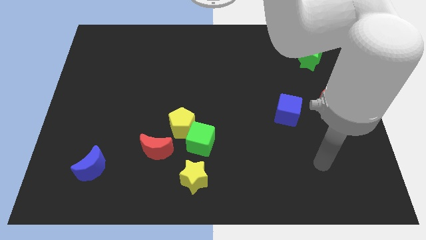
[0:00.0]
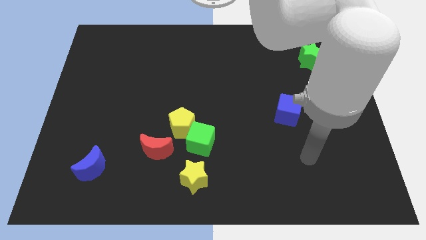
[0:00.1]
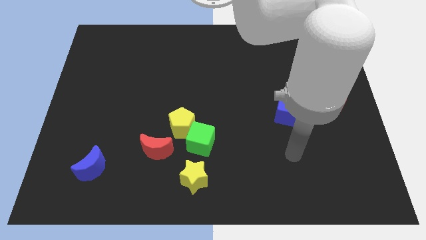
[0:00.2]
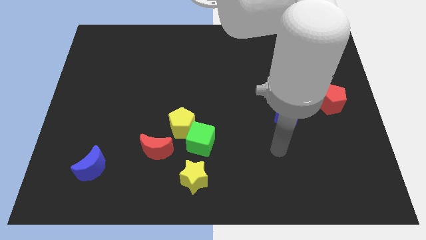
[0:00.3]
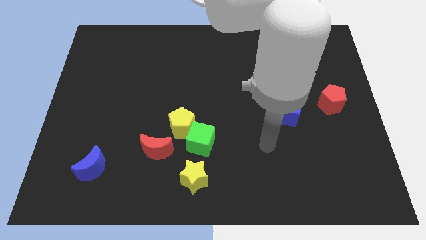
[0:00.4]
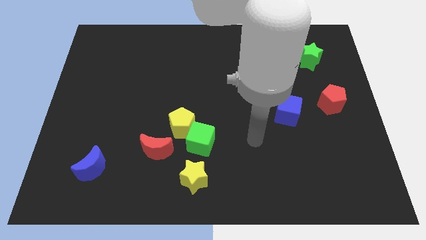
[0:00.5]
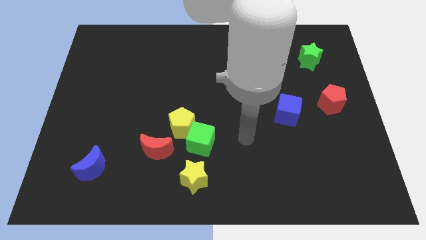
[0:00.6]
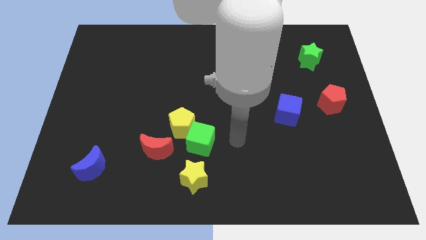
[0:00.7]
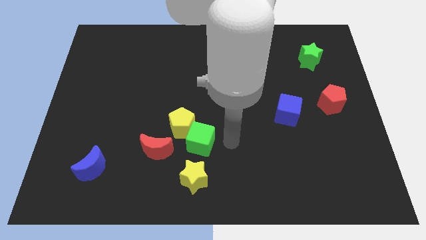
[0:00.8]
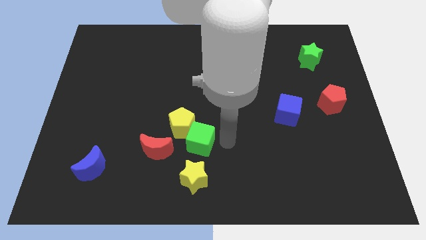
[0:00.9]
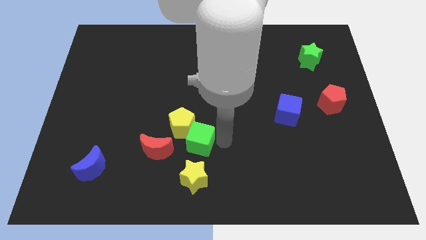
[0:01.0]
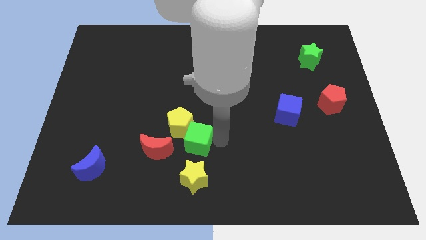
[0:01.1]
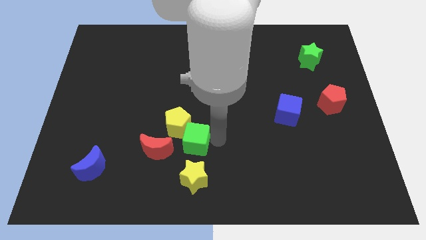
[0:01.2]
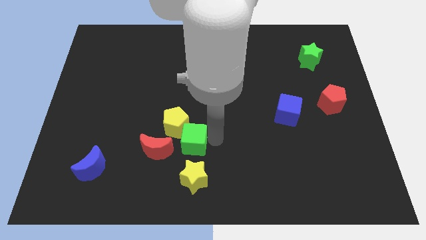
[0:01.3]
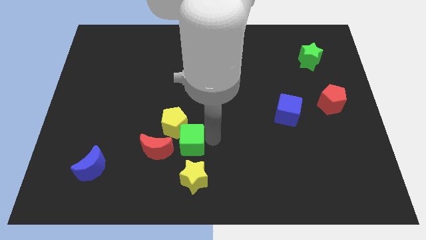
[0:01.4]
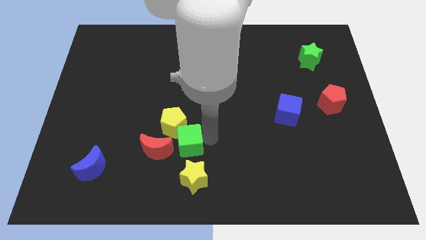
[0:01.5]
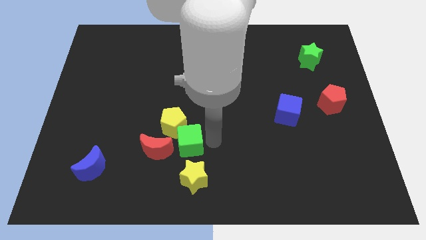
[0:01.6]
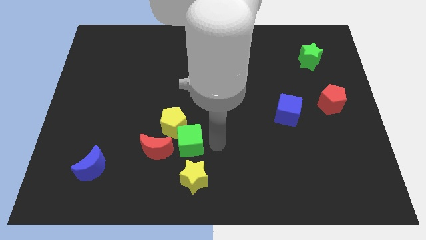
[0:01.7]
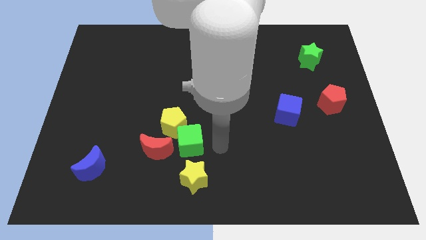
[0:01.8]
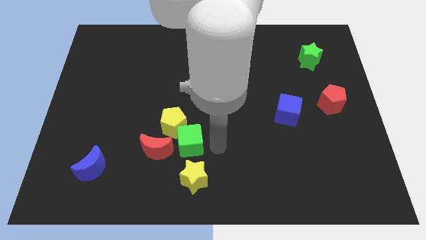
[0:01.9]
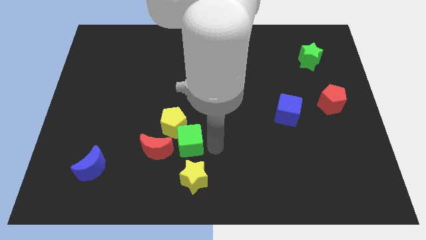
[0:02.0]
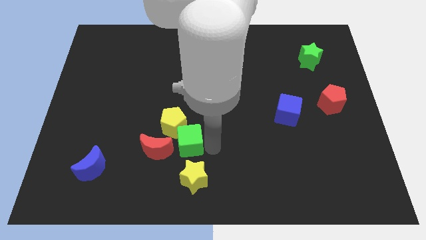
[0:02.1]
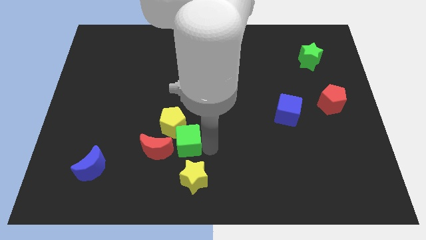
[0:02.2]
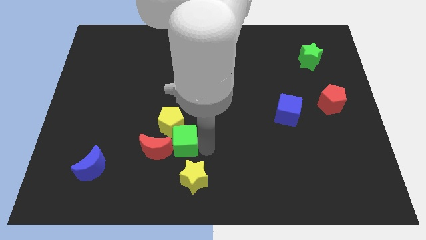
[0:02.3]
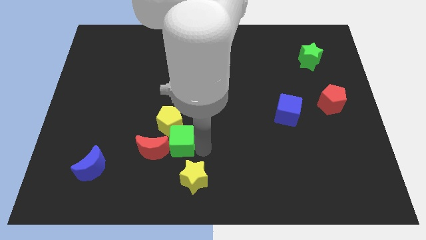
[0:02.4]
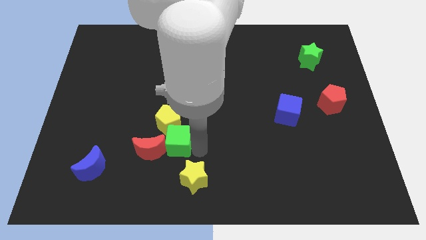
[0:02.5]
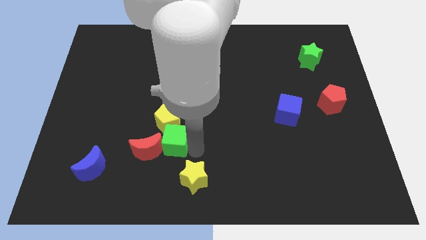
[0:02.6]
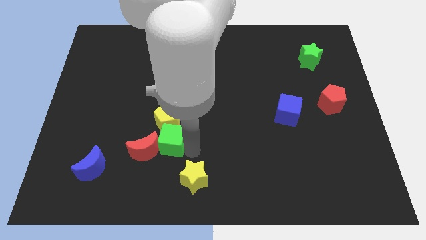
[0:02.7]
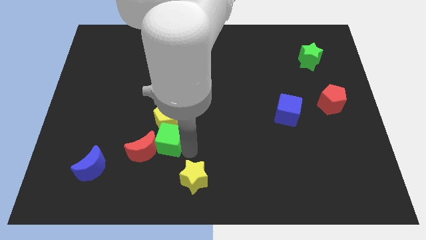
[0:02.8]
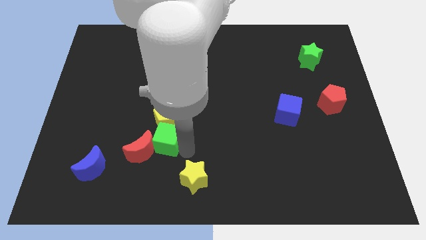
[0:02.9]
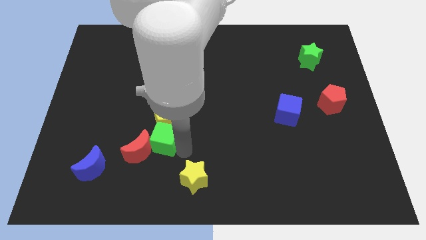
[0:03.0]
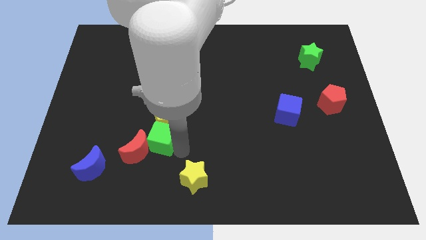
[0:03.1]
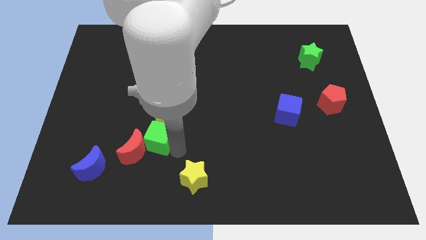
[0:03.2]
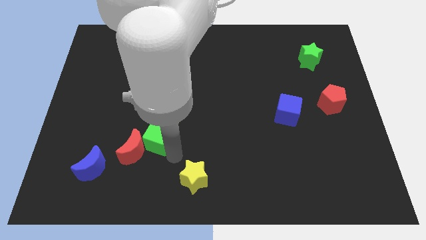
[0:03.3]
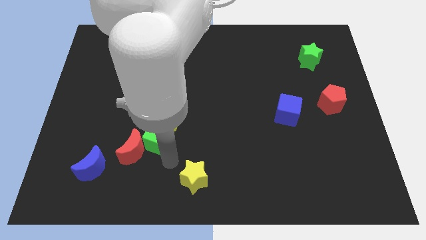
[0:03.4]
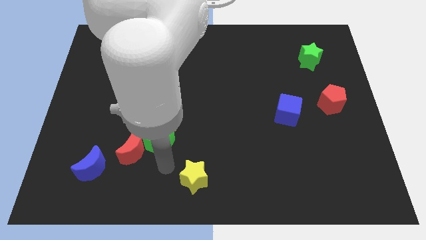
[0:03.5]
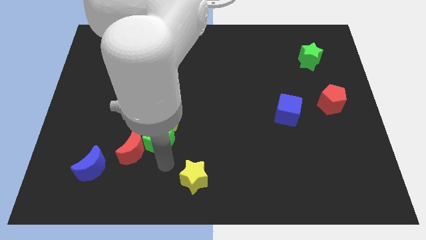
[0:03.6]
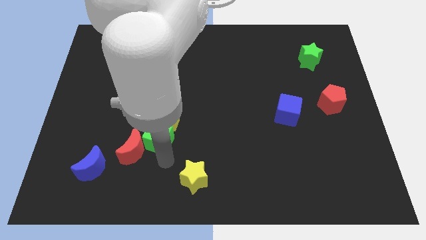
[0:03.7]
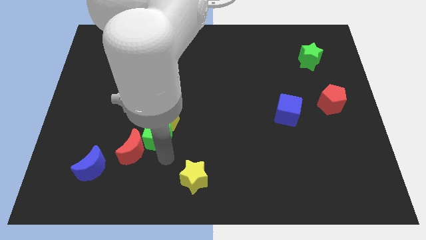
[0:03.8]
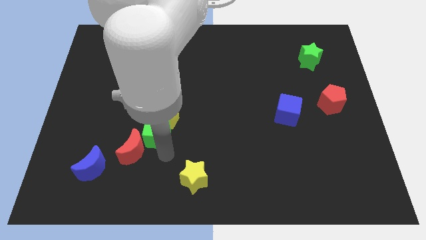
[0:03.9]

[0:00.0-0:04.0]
slightly push the green cube upwards and left diagonally

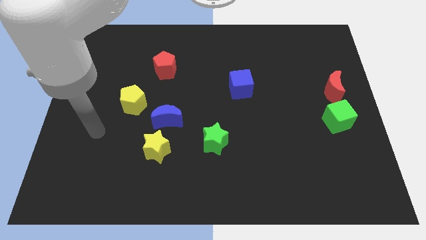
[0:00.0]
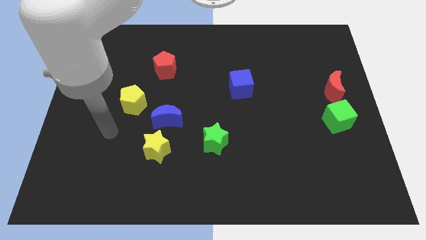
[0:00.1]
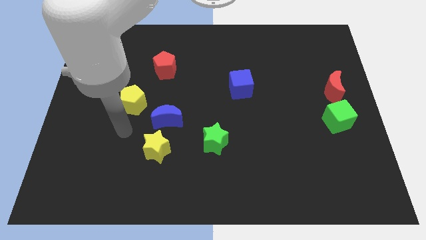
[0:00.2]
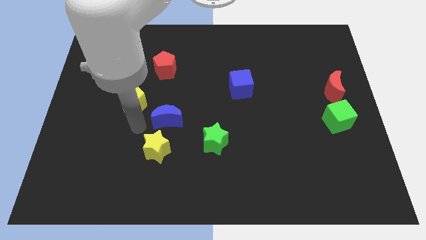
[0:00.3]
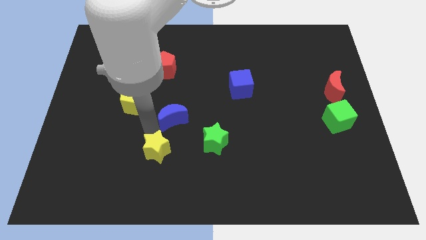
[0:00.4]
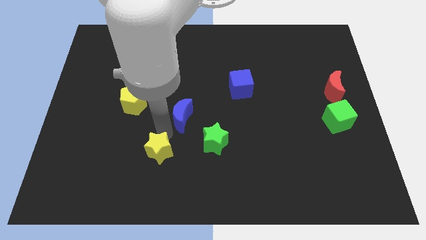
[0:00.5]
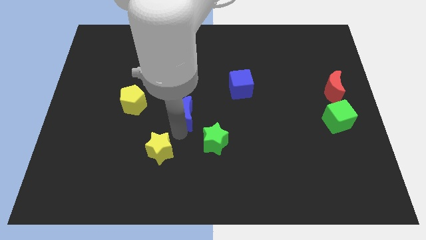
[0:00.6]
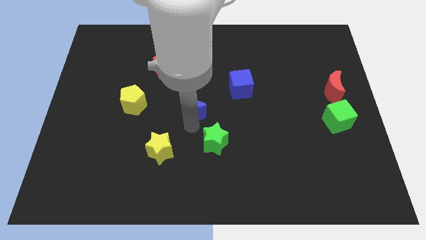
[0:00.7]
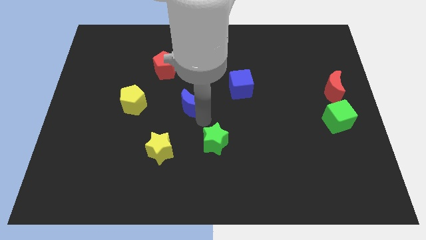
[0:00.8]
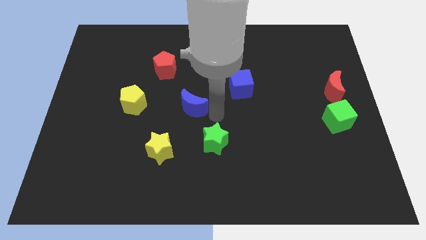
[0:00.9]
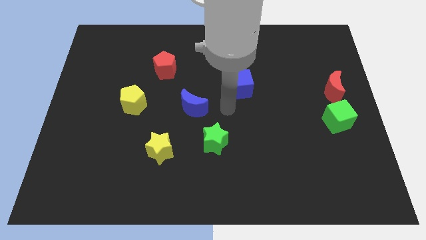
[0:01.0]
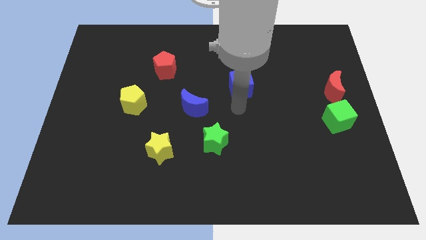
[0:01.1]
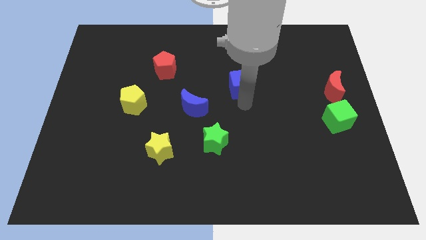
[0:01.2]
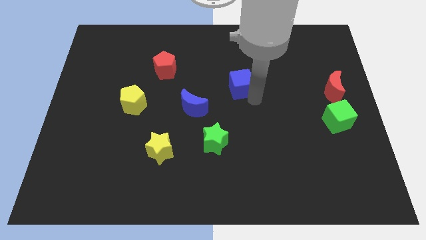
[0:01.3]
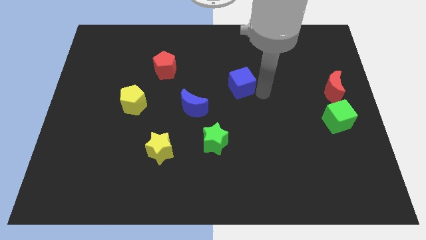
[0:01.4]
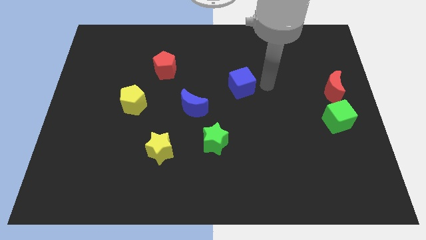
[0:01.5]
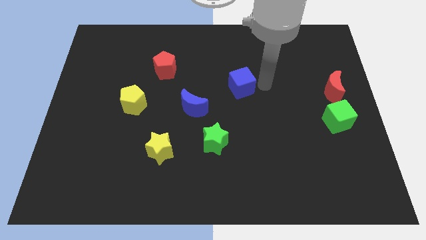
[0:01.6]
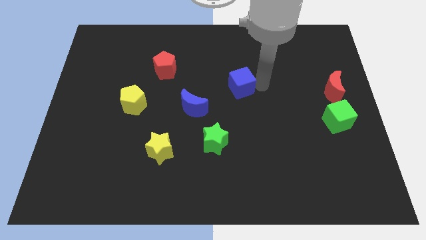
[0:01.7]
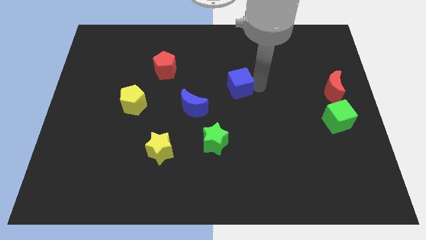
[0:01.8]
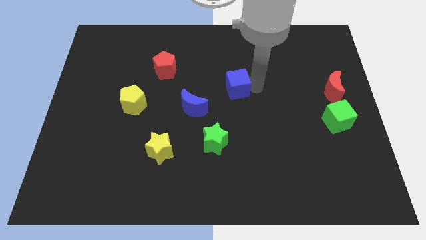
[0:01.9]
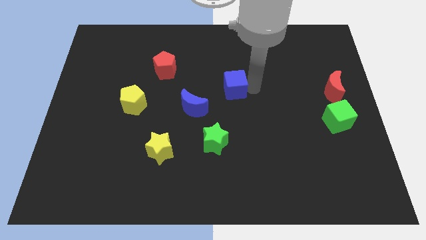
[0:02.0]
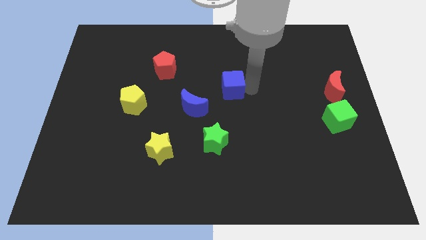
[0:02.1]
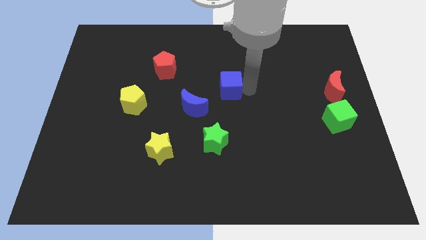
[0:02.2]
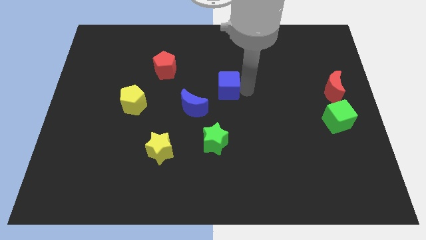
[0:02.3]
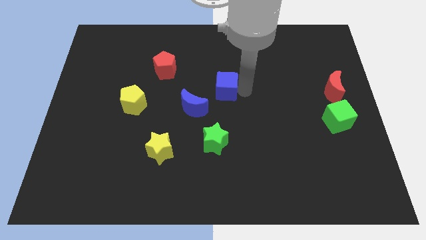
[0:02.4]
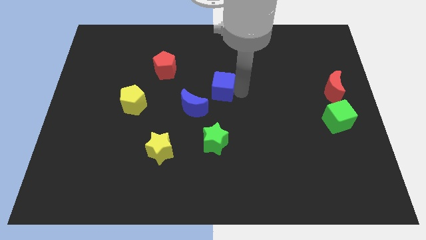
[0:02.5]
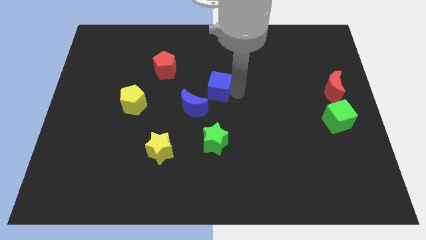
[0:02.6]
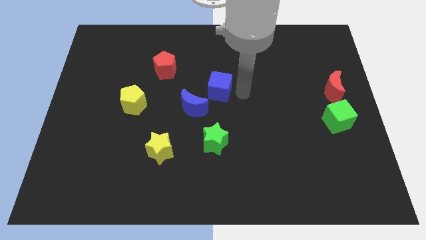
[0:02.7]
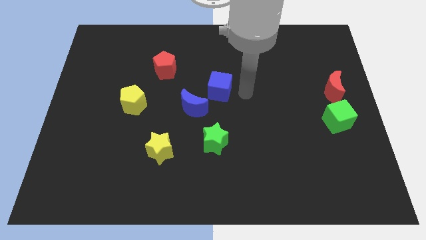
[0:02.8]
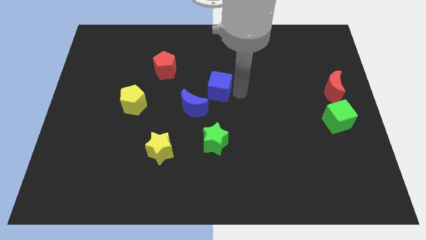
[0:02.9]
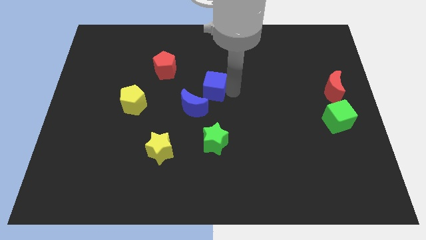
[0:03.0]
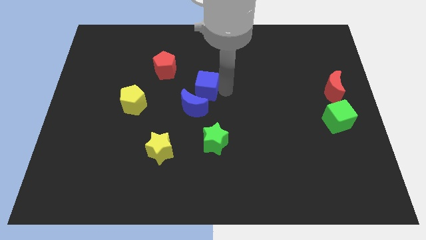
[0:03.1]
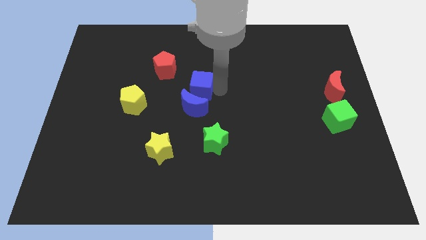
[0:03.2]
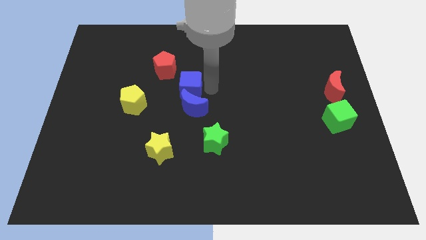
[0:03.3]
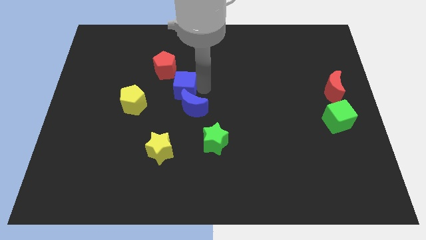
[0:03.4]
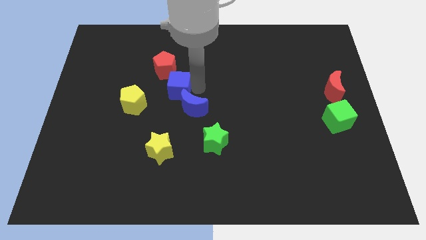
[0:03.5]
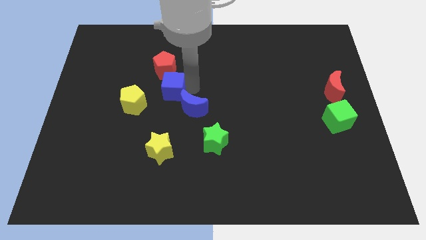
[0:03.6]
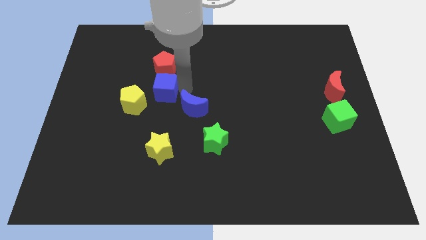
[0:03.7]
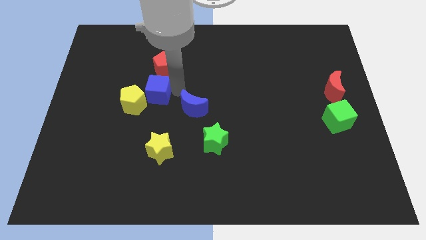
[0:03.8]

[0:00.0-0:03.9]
move the blue cube to the left

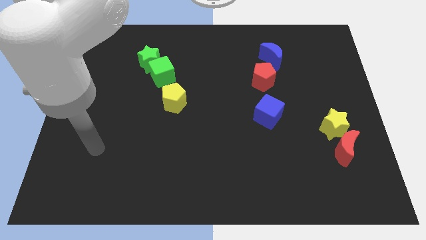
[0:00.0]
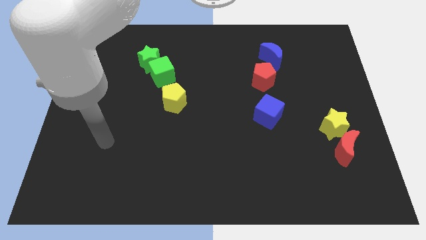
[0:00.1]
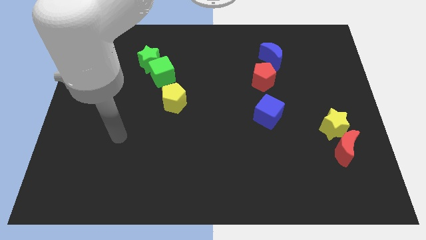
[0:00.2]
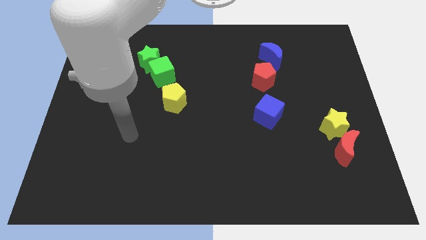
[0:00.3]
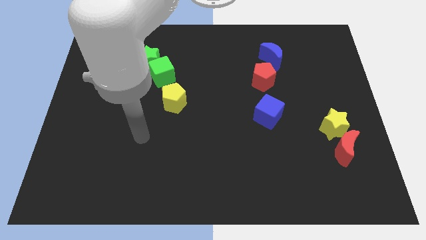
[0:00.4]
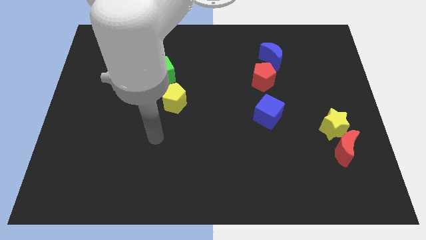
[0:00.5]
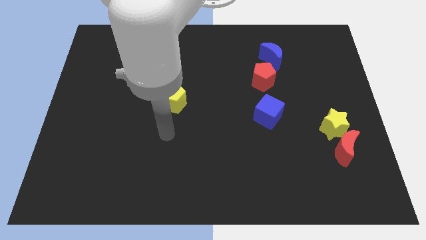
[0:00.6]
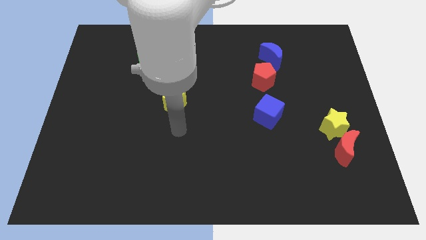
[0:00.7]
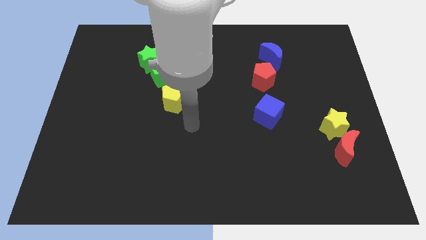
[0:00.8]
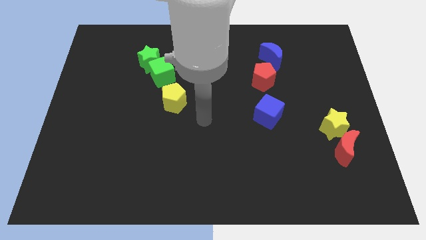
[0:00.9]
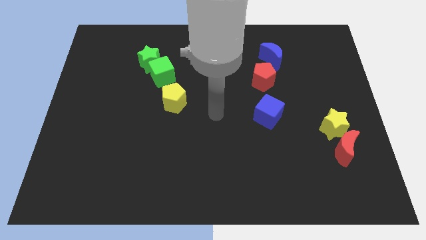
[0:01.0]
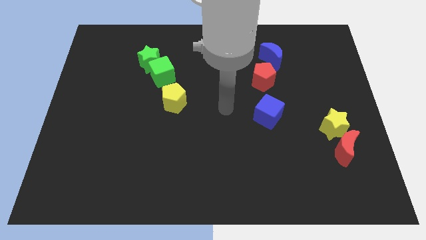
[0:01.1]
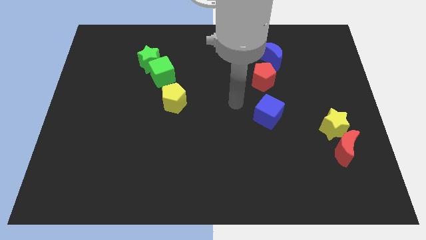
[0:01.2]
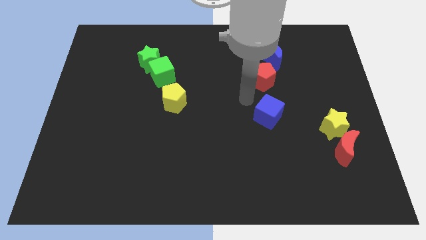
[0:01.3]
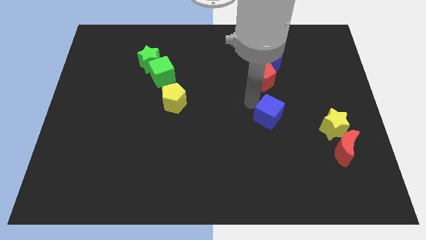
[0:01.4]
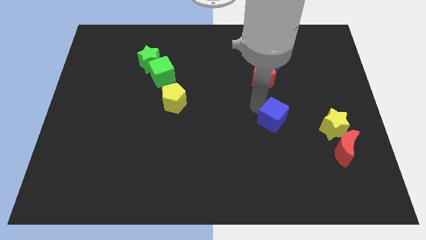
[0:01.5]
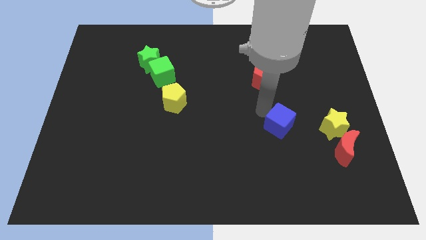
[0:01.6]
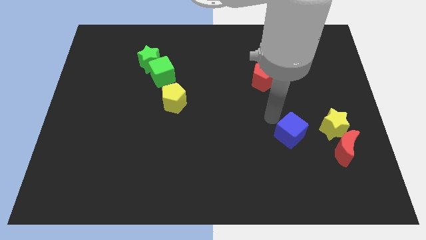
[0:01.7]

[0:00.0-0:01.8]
slightly slide the blue cube down and then right
